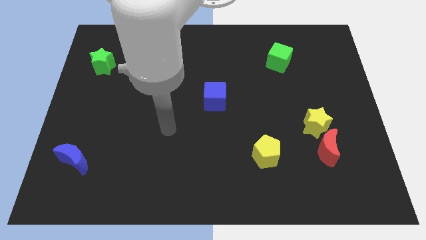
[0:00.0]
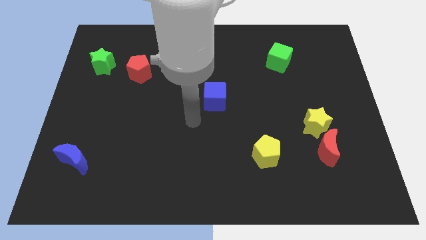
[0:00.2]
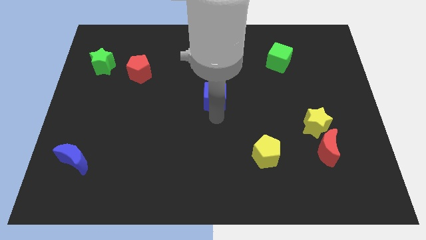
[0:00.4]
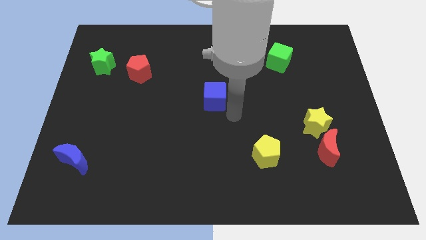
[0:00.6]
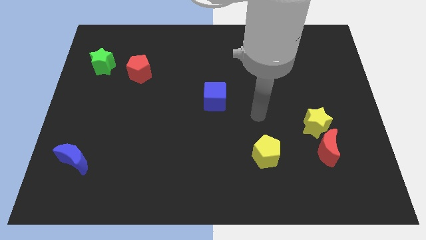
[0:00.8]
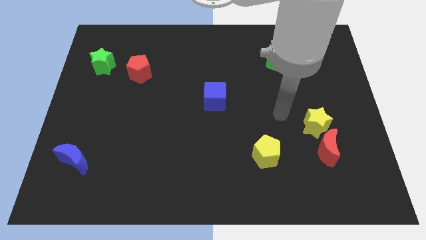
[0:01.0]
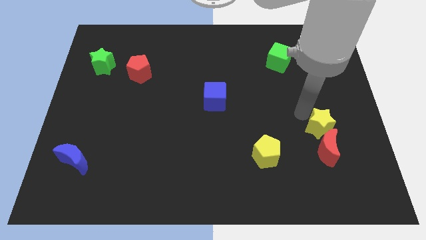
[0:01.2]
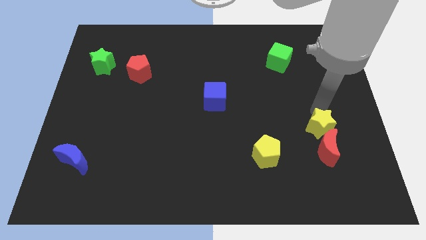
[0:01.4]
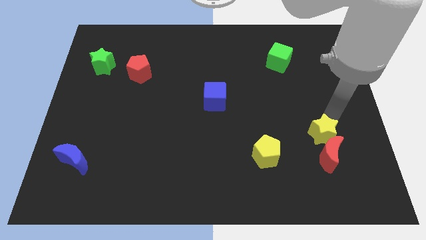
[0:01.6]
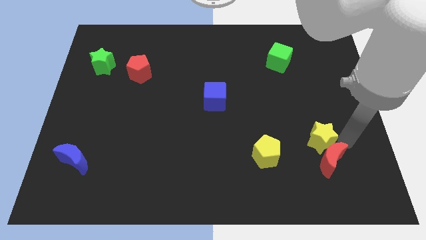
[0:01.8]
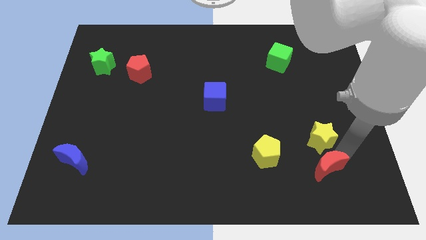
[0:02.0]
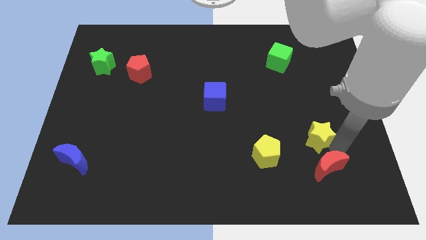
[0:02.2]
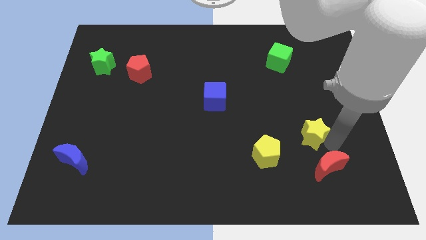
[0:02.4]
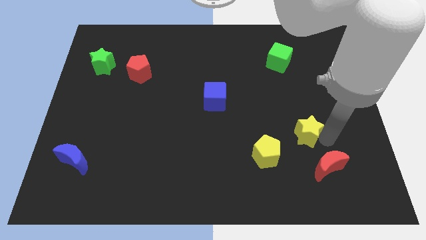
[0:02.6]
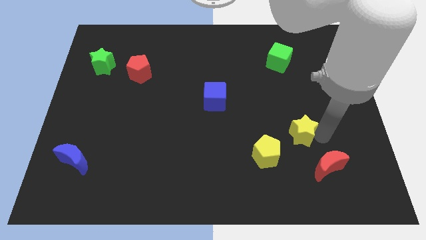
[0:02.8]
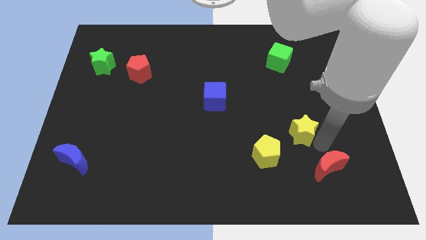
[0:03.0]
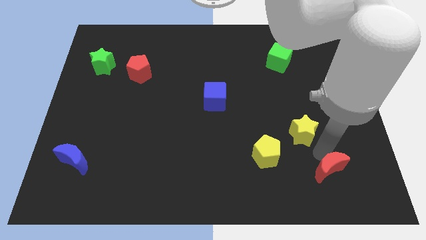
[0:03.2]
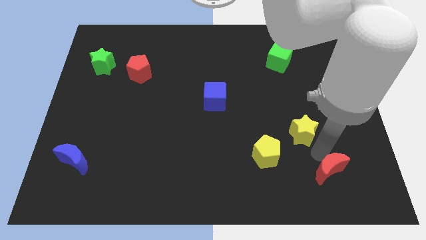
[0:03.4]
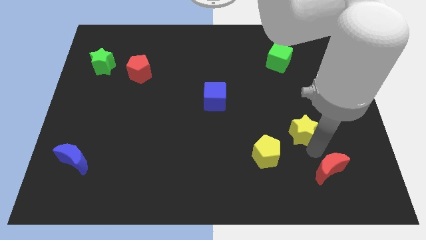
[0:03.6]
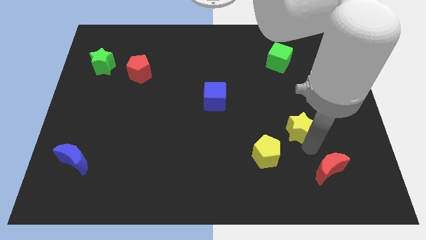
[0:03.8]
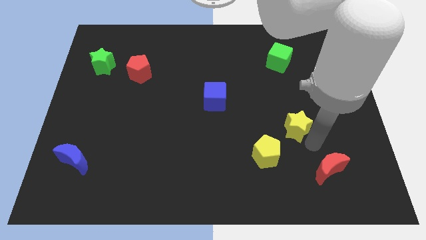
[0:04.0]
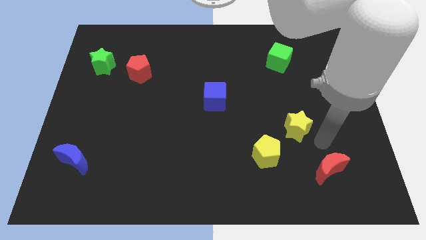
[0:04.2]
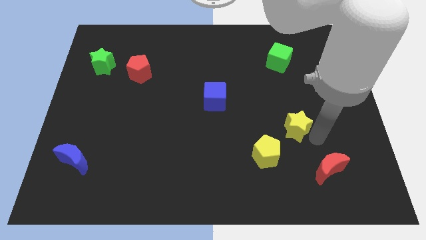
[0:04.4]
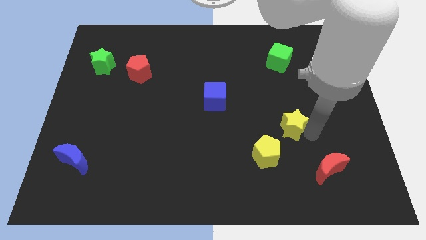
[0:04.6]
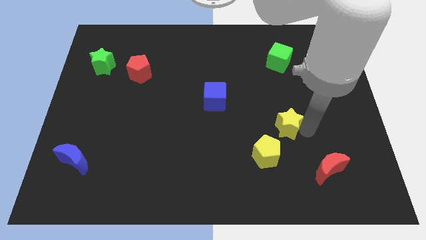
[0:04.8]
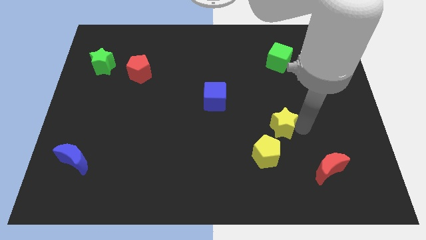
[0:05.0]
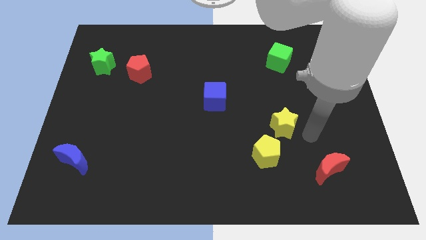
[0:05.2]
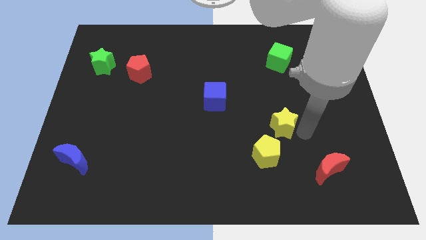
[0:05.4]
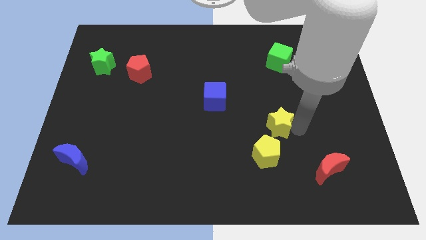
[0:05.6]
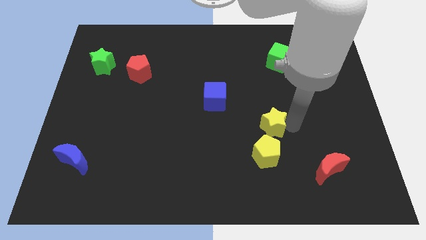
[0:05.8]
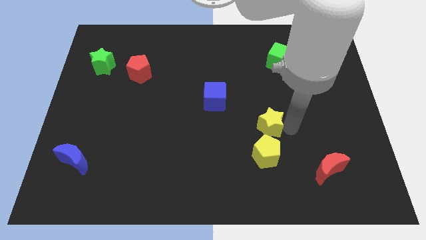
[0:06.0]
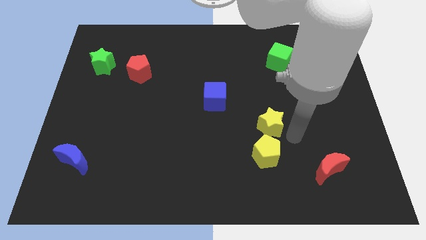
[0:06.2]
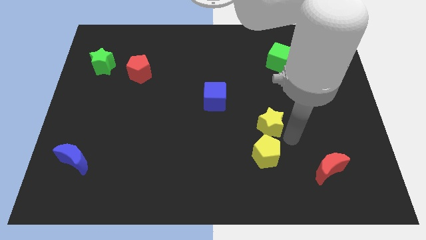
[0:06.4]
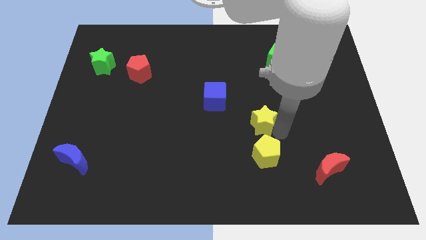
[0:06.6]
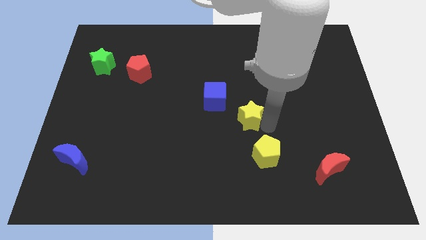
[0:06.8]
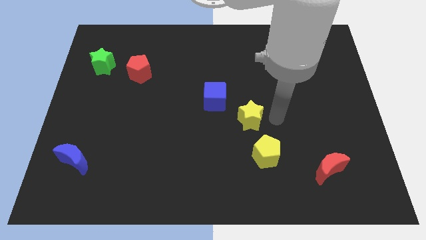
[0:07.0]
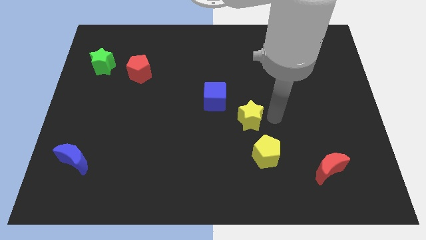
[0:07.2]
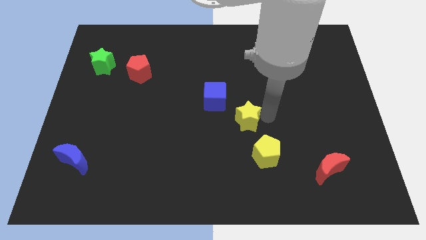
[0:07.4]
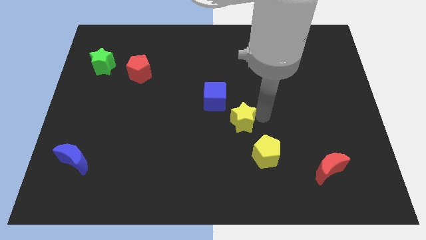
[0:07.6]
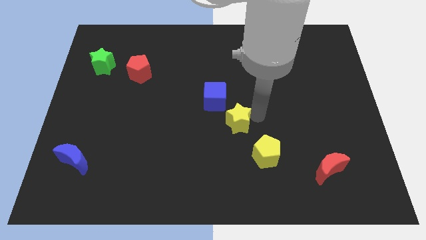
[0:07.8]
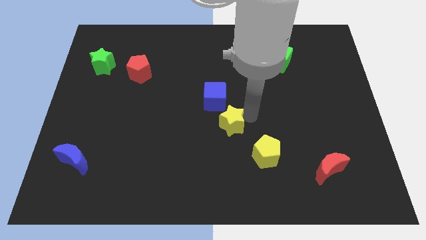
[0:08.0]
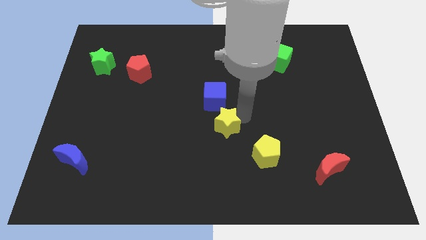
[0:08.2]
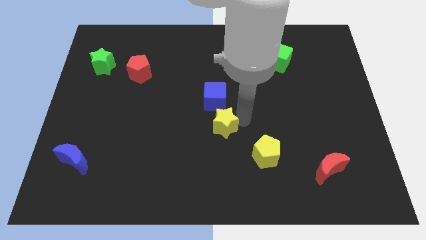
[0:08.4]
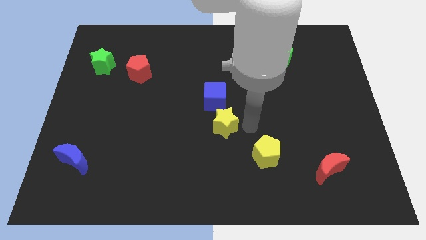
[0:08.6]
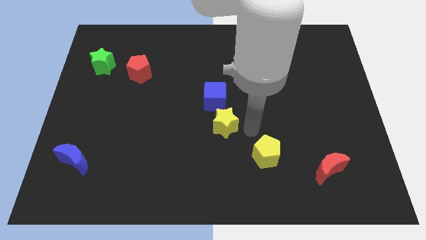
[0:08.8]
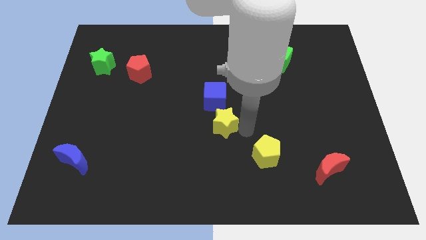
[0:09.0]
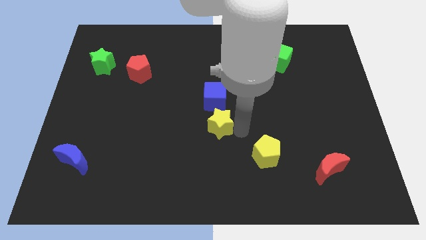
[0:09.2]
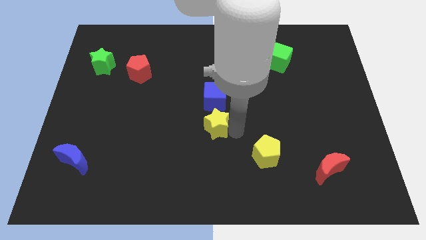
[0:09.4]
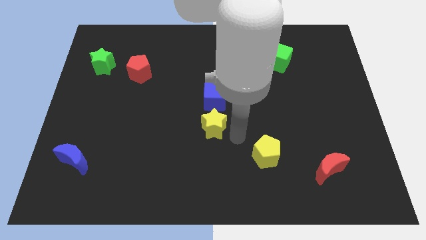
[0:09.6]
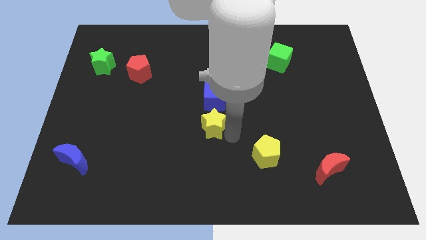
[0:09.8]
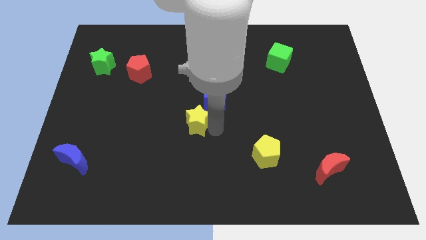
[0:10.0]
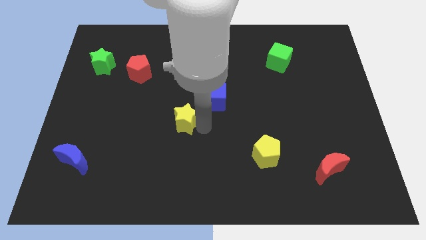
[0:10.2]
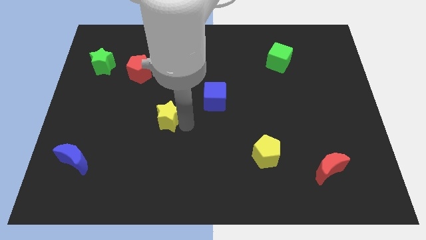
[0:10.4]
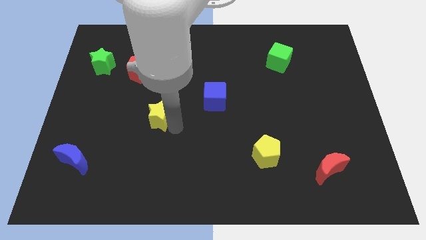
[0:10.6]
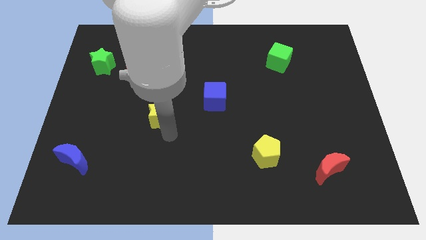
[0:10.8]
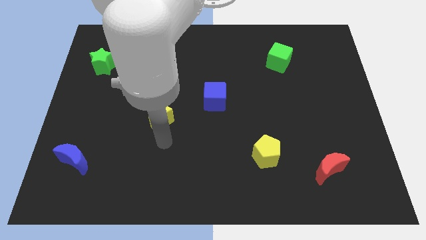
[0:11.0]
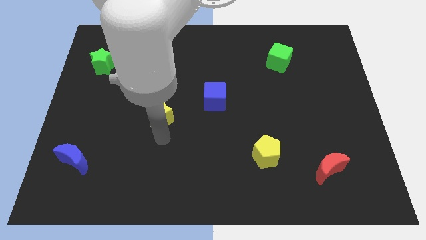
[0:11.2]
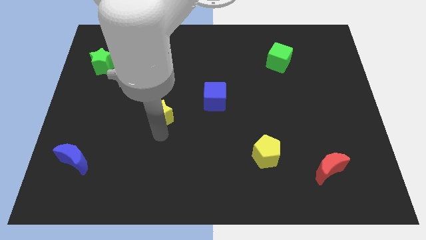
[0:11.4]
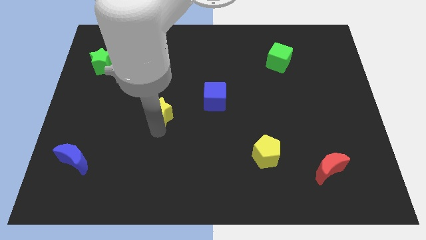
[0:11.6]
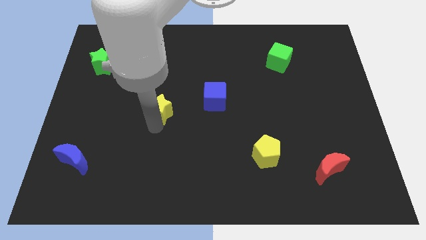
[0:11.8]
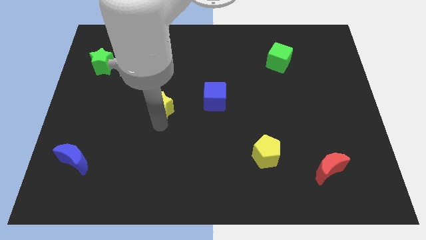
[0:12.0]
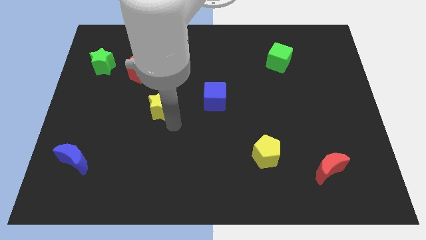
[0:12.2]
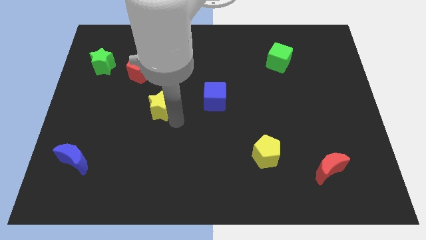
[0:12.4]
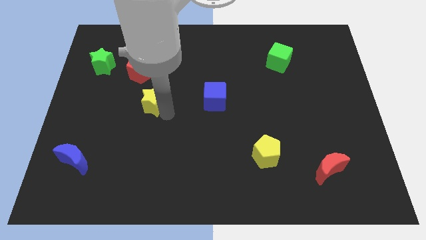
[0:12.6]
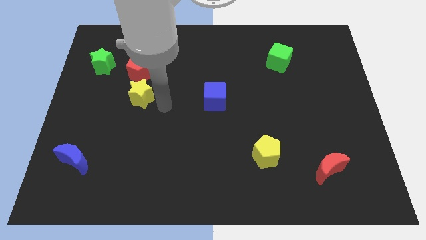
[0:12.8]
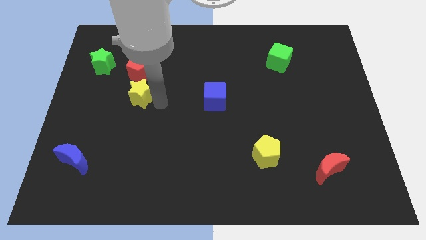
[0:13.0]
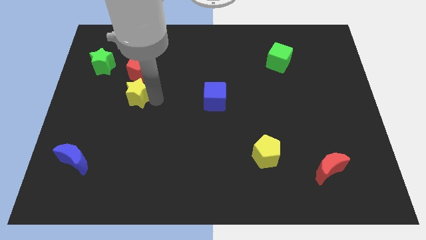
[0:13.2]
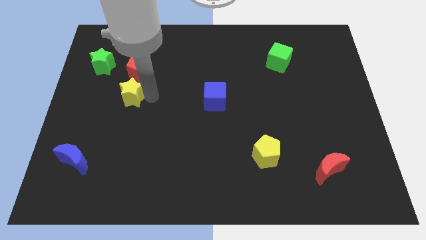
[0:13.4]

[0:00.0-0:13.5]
put the yellow star to the bottom left side of the red pentagon

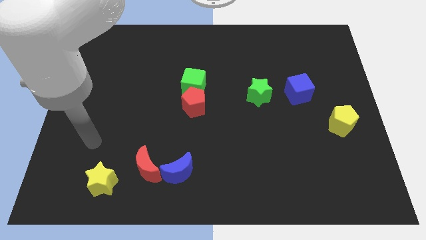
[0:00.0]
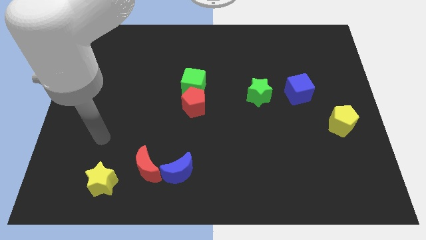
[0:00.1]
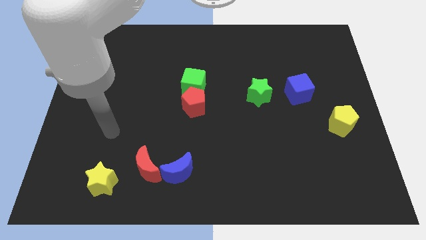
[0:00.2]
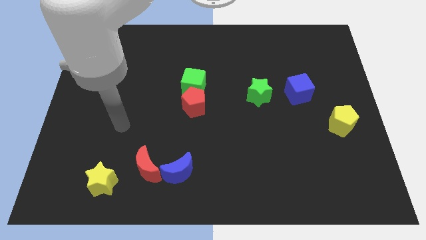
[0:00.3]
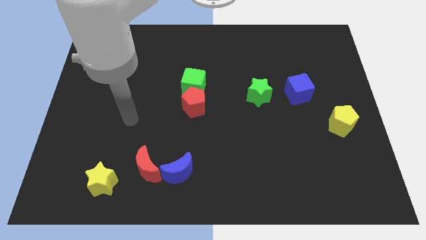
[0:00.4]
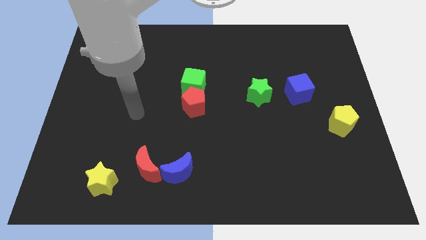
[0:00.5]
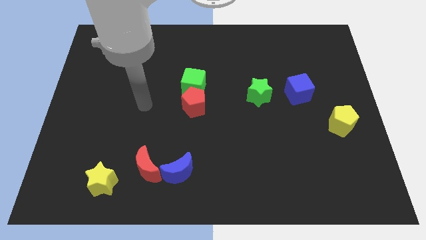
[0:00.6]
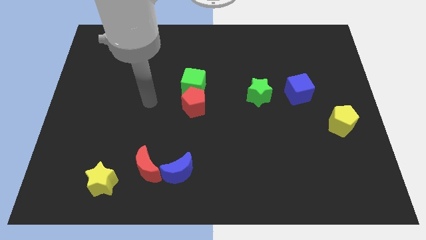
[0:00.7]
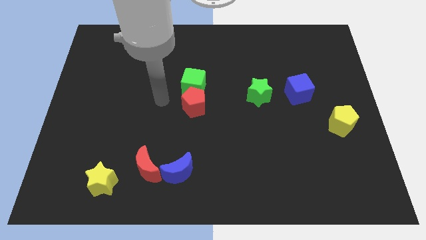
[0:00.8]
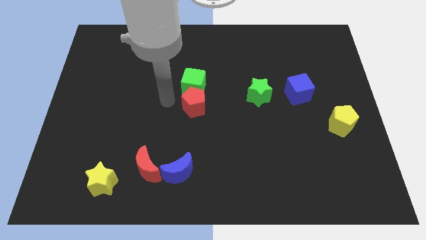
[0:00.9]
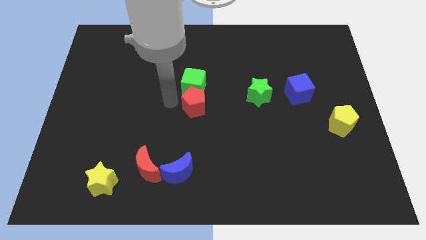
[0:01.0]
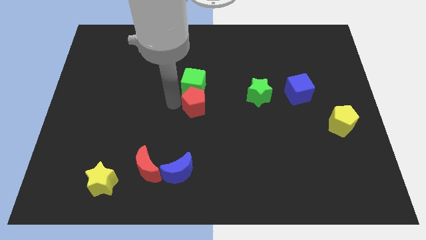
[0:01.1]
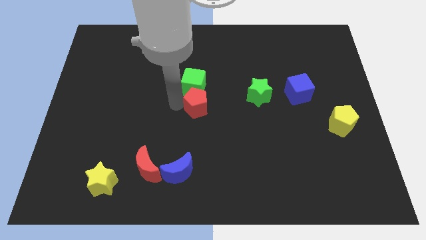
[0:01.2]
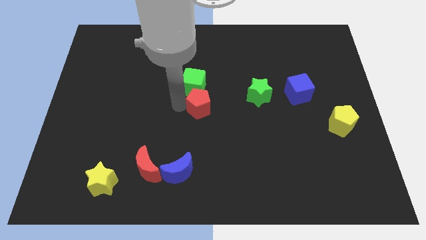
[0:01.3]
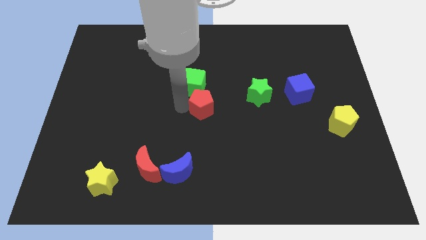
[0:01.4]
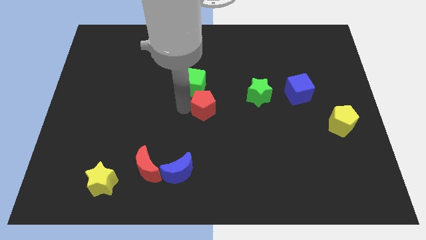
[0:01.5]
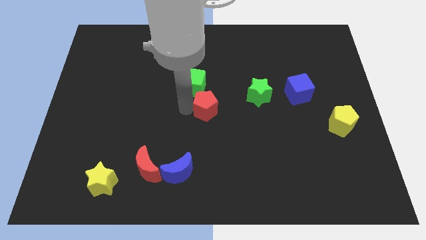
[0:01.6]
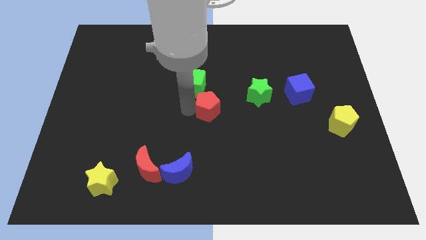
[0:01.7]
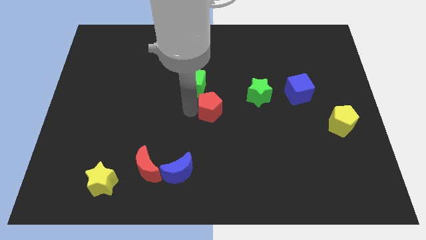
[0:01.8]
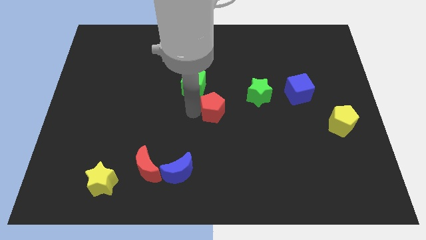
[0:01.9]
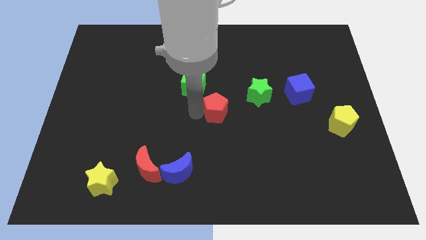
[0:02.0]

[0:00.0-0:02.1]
slide the red pentagon to the bottom left side of the green star
